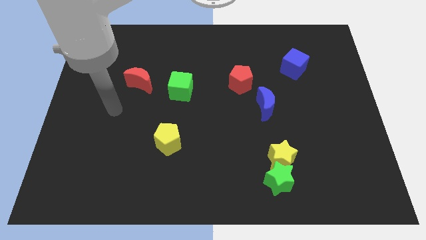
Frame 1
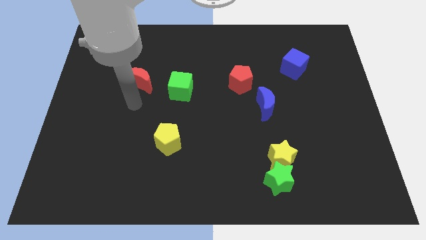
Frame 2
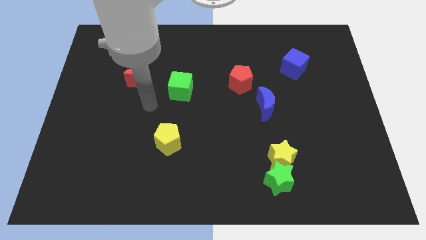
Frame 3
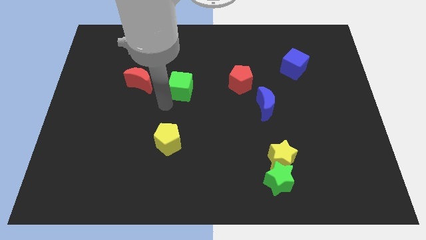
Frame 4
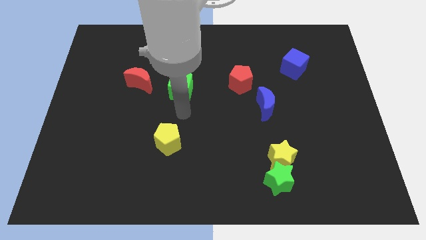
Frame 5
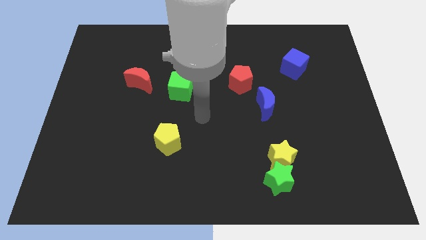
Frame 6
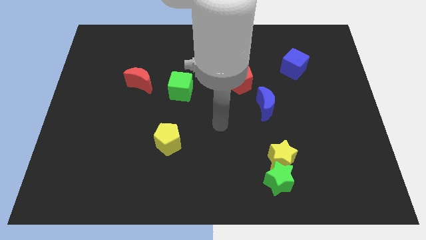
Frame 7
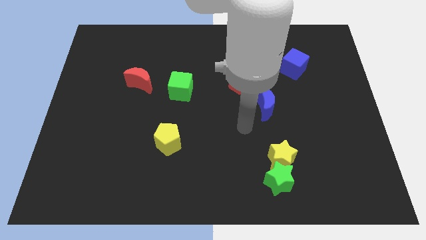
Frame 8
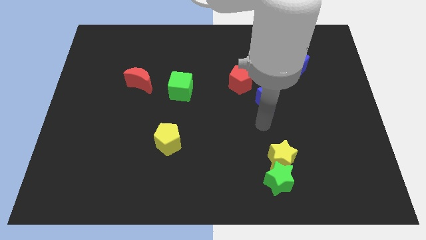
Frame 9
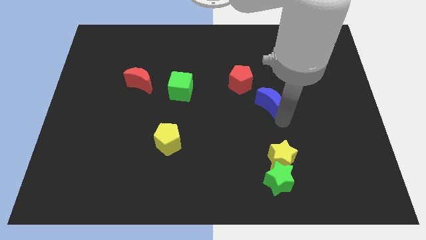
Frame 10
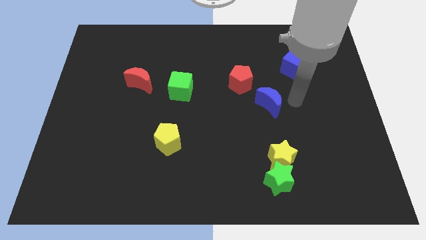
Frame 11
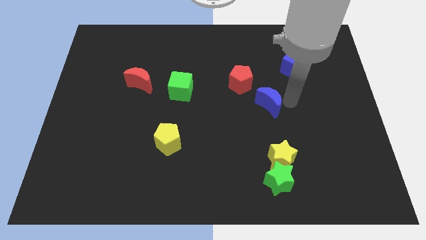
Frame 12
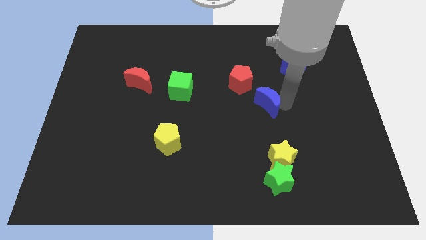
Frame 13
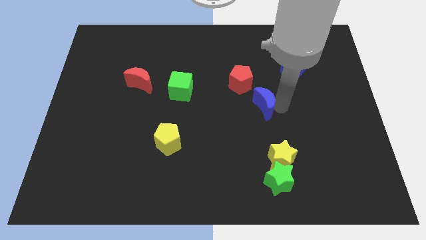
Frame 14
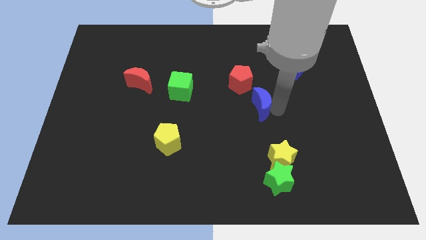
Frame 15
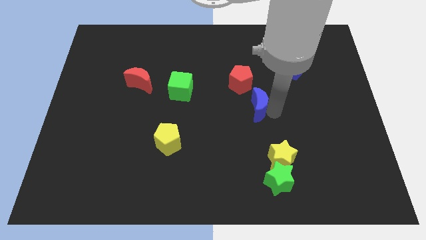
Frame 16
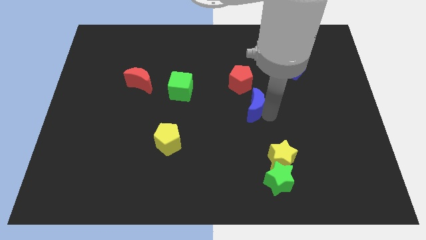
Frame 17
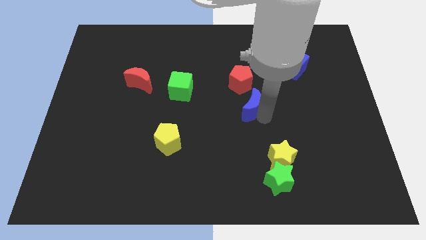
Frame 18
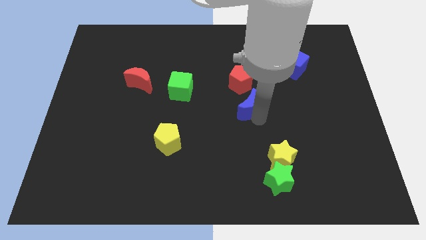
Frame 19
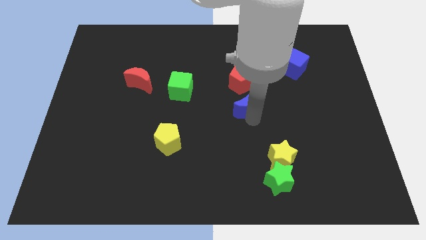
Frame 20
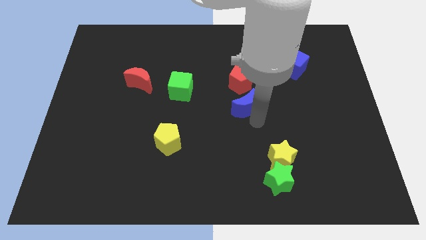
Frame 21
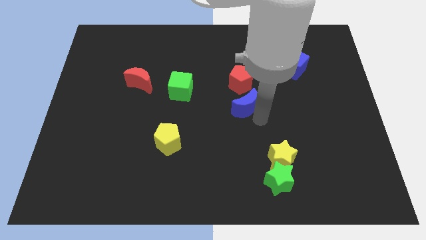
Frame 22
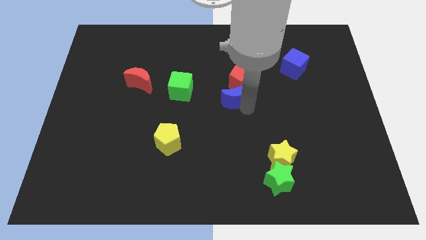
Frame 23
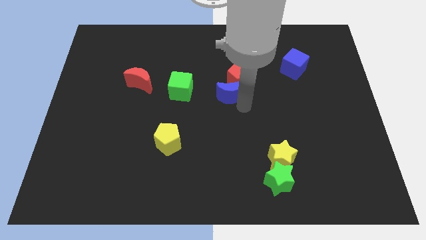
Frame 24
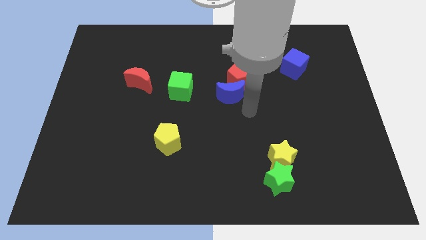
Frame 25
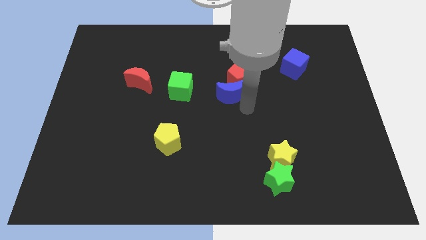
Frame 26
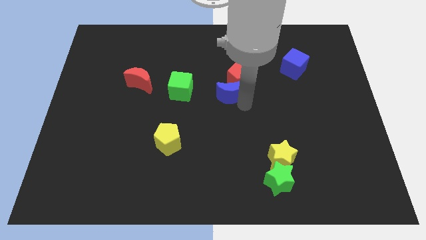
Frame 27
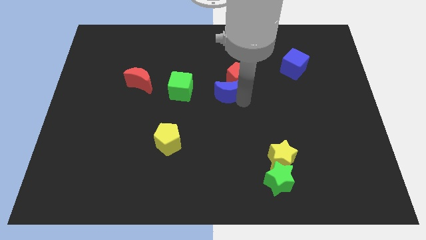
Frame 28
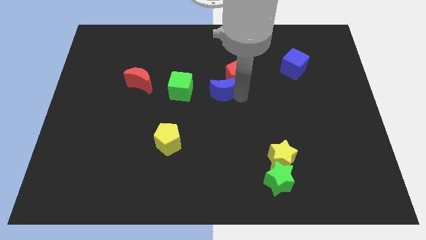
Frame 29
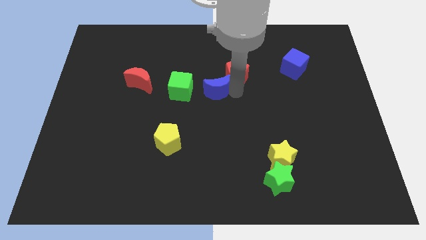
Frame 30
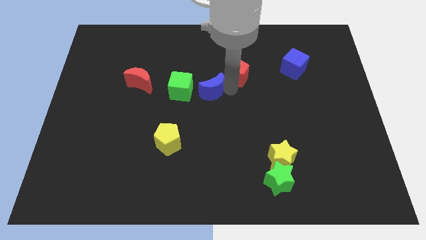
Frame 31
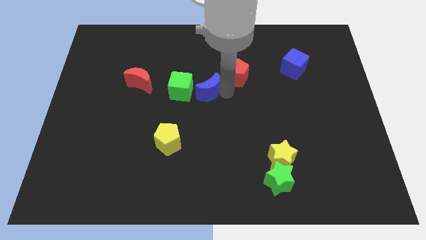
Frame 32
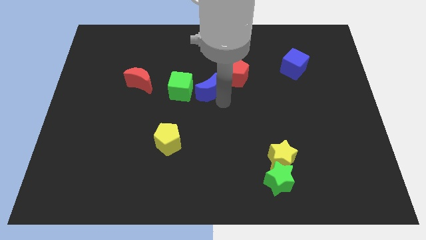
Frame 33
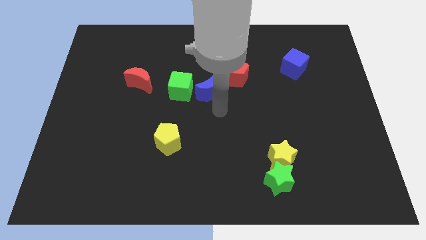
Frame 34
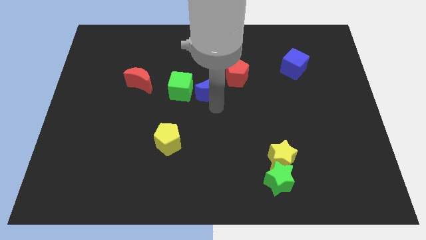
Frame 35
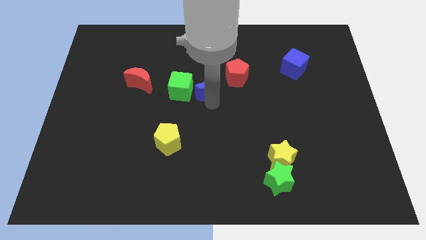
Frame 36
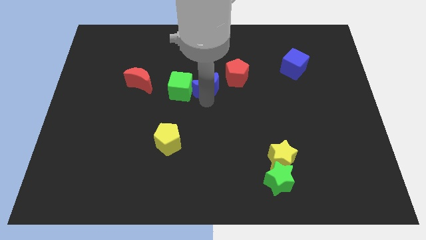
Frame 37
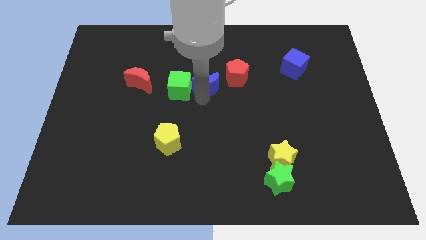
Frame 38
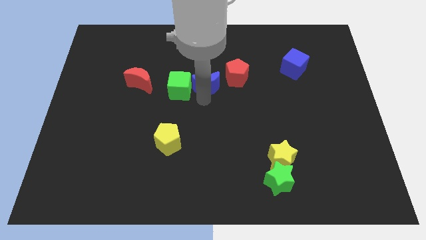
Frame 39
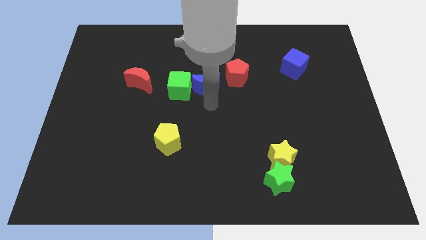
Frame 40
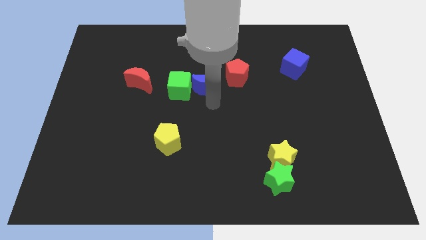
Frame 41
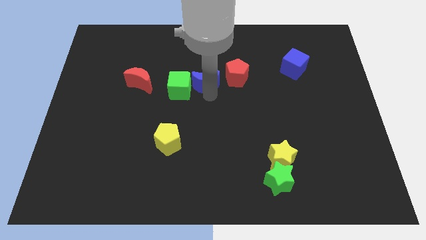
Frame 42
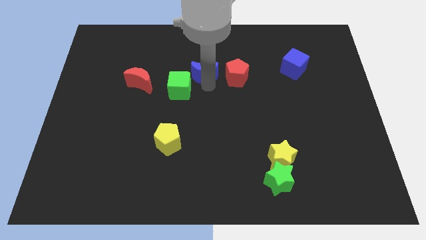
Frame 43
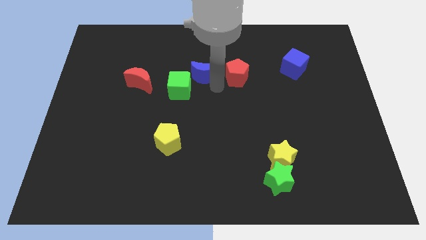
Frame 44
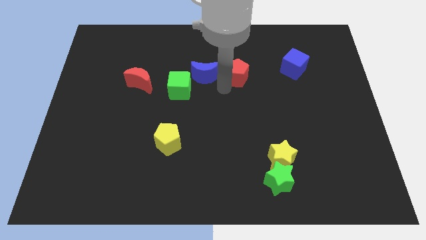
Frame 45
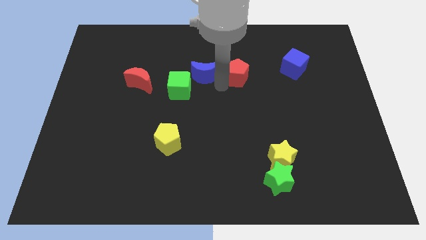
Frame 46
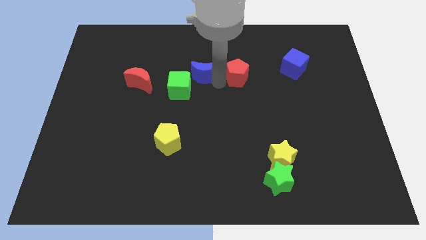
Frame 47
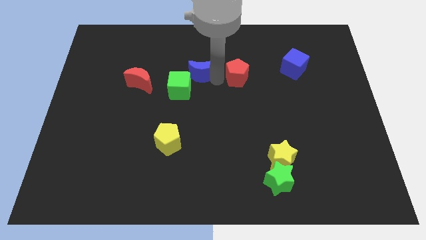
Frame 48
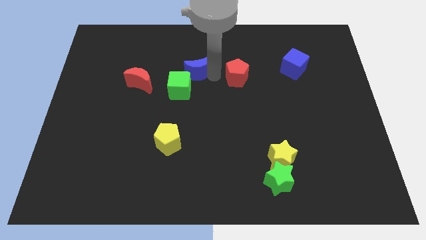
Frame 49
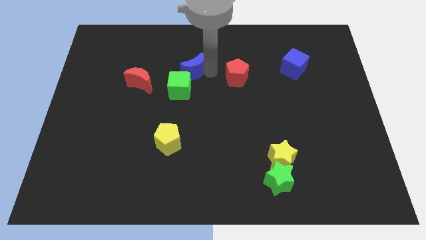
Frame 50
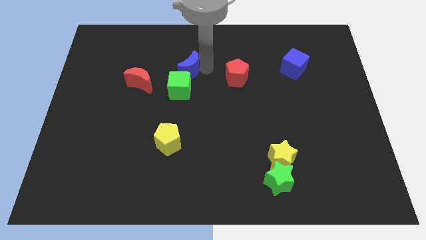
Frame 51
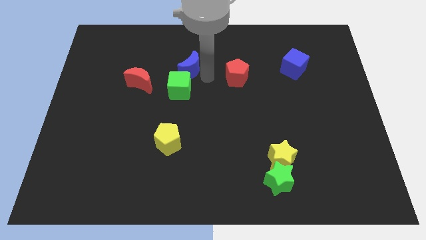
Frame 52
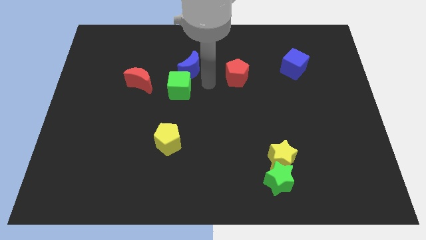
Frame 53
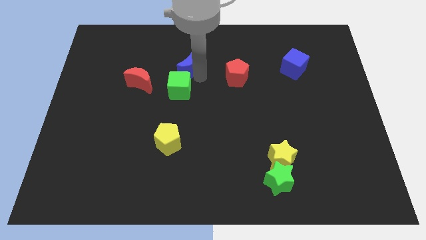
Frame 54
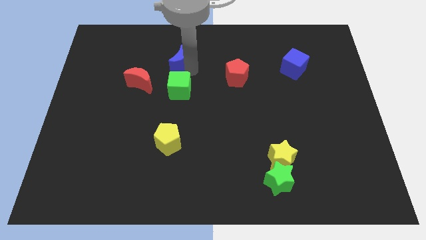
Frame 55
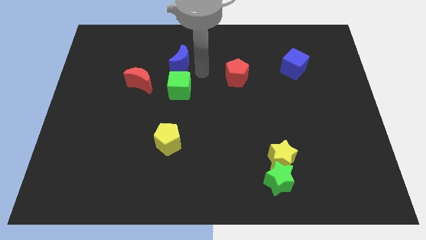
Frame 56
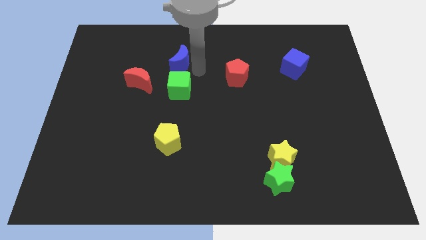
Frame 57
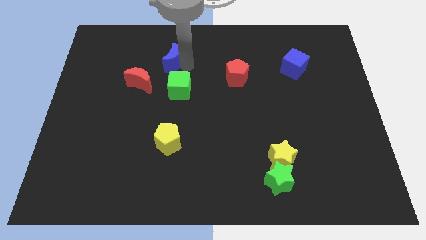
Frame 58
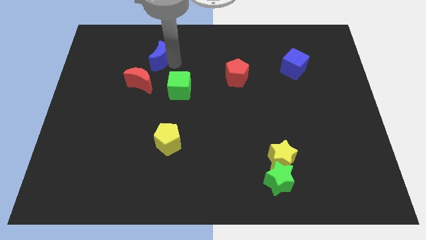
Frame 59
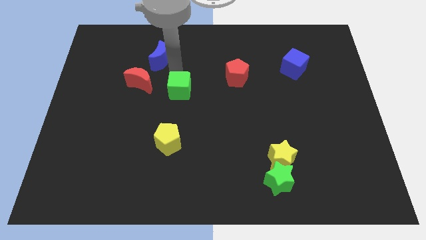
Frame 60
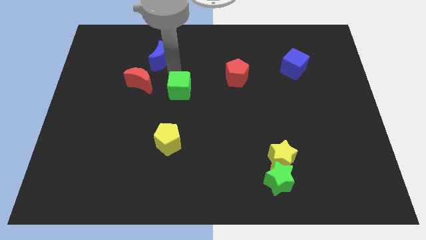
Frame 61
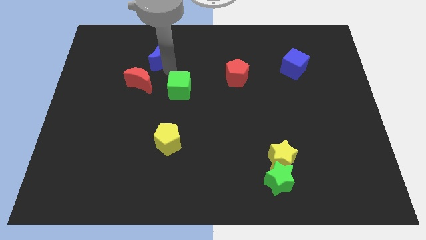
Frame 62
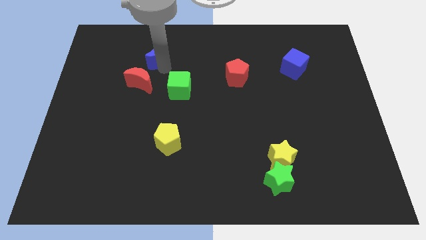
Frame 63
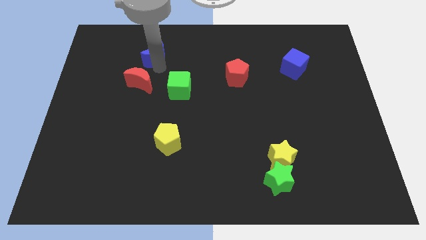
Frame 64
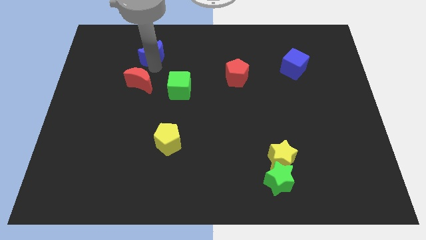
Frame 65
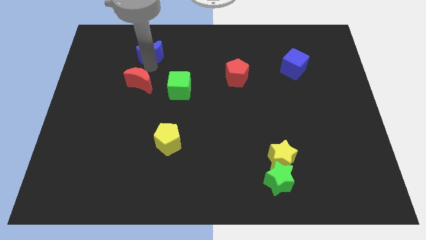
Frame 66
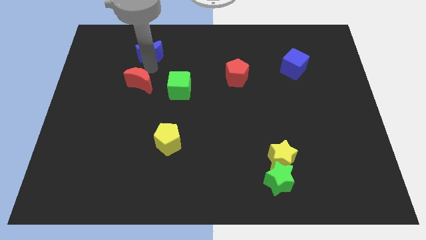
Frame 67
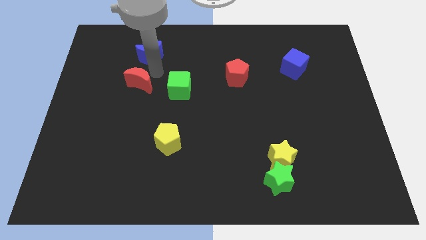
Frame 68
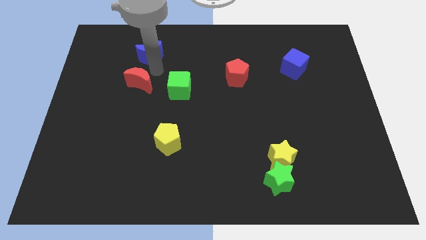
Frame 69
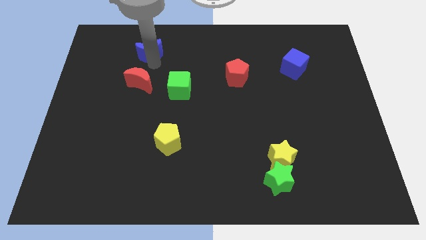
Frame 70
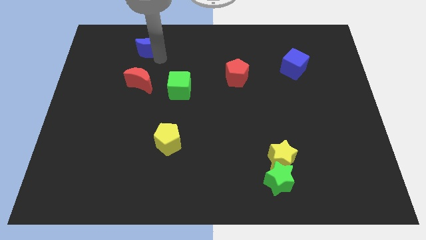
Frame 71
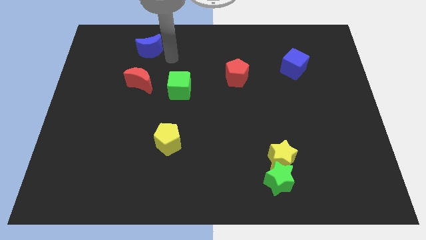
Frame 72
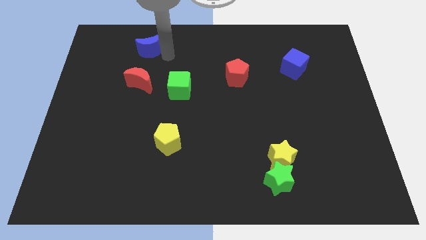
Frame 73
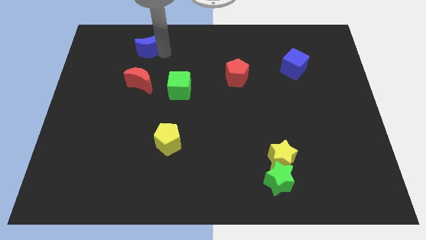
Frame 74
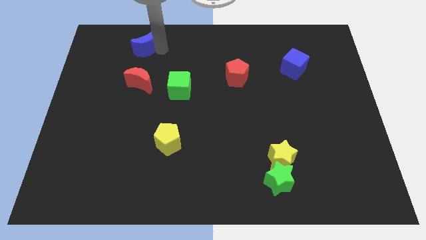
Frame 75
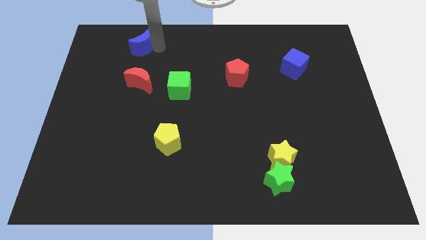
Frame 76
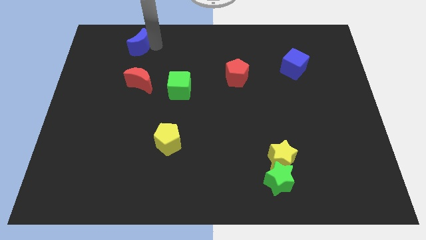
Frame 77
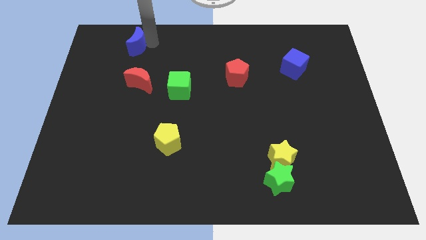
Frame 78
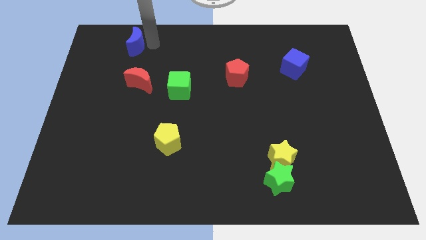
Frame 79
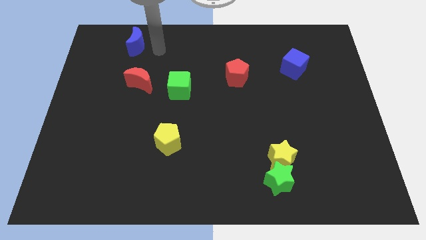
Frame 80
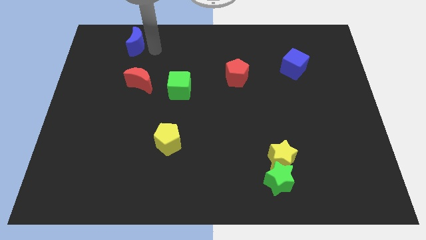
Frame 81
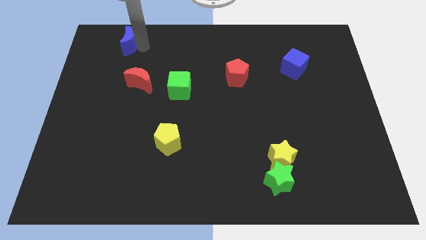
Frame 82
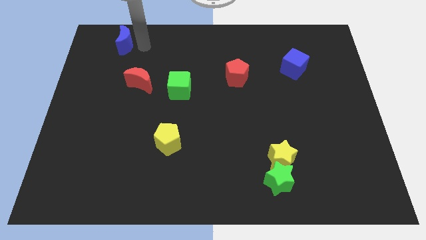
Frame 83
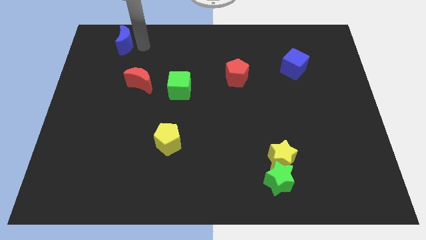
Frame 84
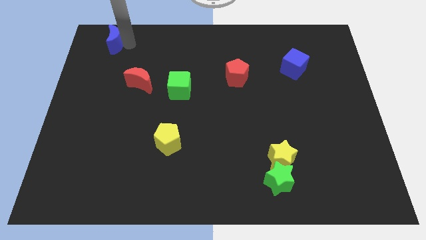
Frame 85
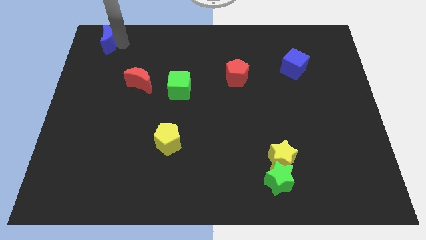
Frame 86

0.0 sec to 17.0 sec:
slide the blue moon to the top left
